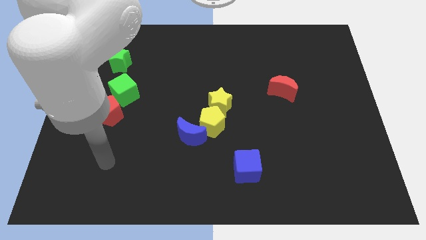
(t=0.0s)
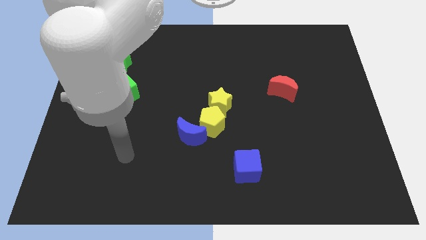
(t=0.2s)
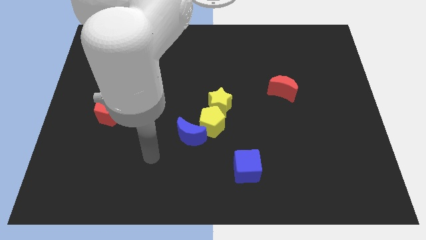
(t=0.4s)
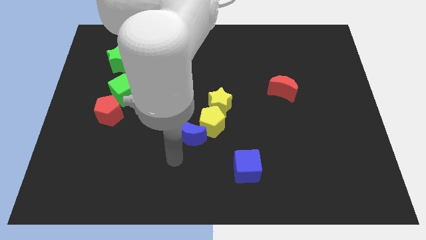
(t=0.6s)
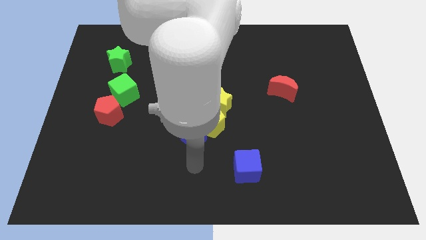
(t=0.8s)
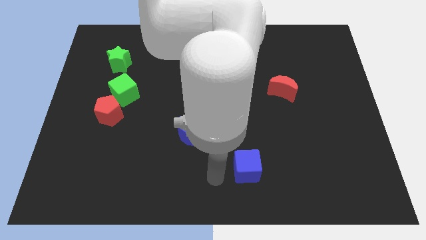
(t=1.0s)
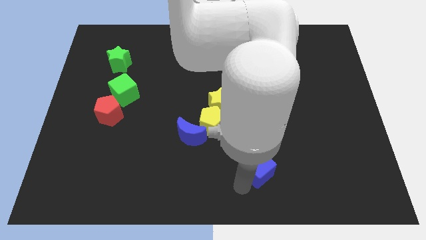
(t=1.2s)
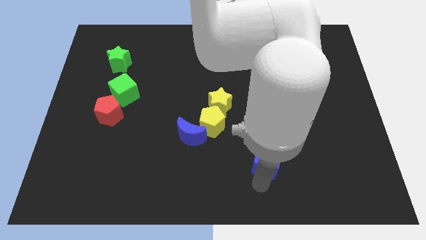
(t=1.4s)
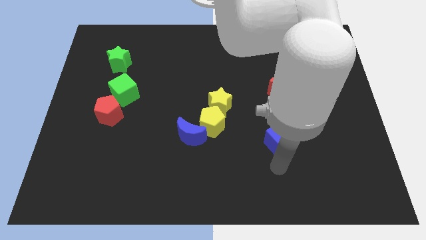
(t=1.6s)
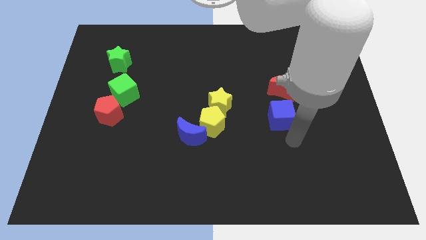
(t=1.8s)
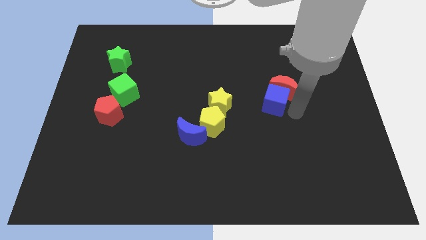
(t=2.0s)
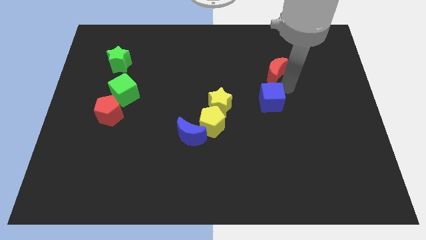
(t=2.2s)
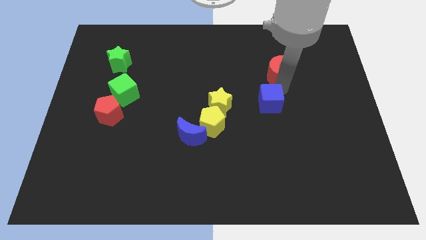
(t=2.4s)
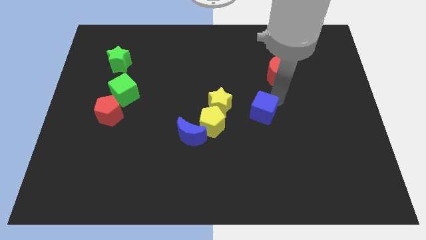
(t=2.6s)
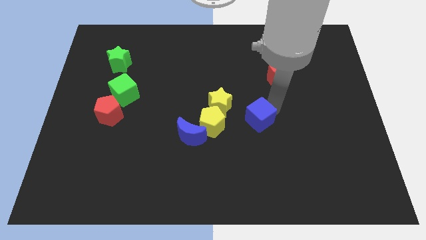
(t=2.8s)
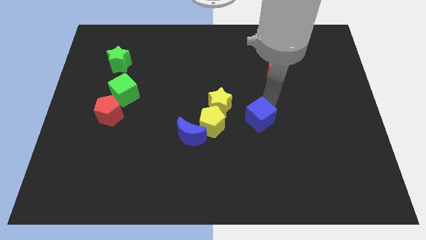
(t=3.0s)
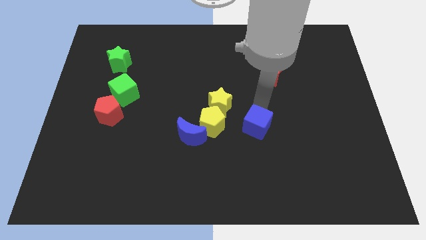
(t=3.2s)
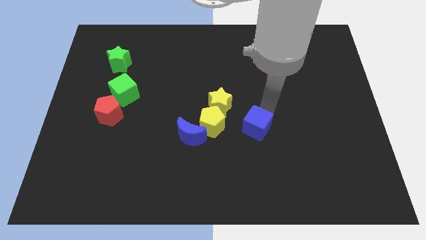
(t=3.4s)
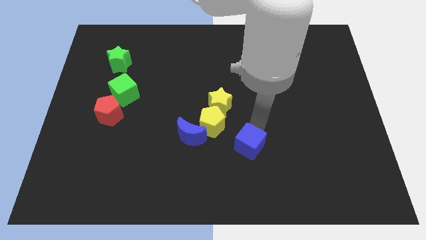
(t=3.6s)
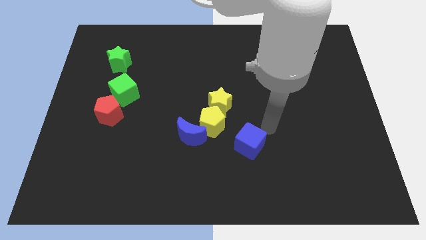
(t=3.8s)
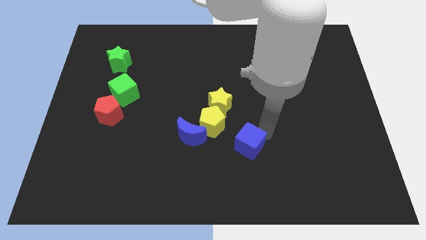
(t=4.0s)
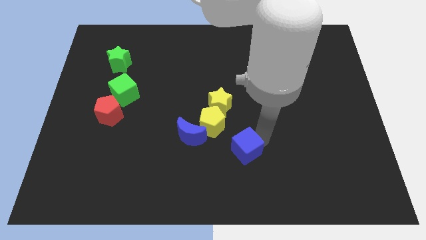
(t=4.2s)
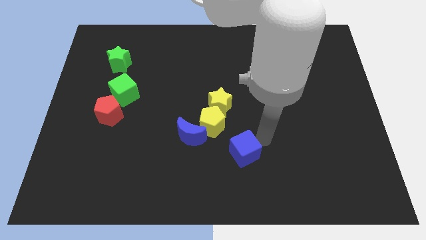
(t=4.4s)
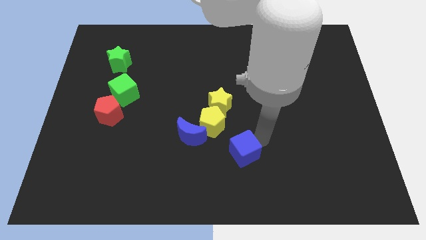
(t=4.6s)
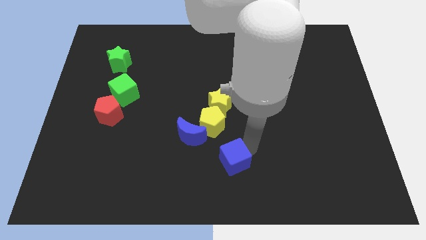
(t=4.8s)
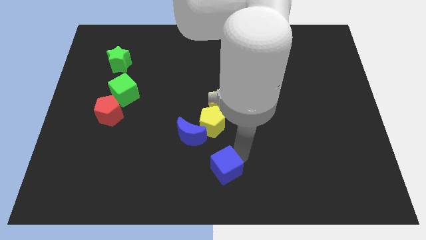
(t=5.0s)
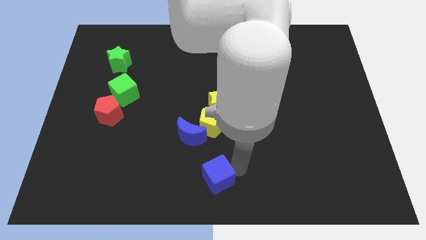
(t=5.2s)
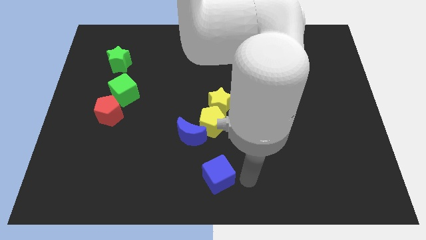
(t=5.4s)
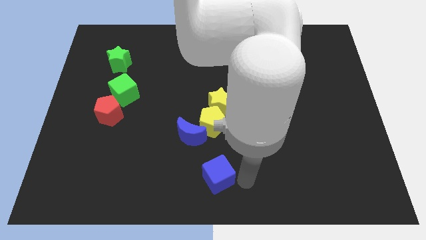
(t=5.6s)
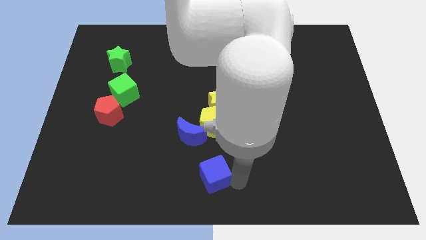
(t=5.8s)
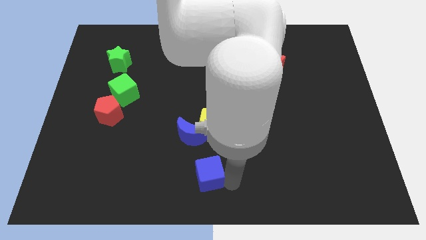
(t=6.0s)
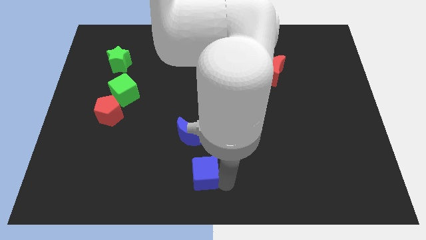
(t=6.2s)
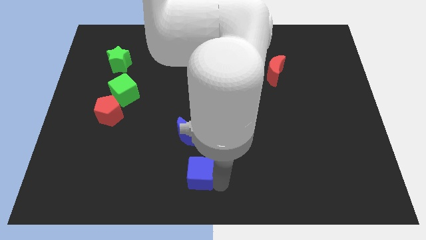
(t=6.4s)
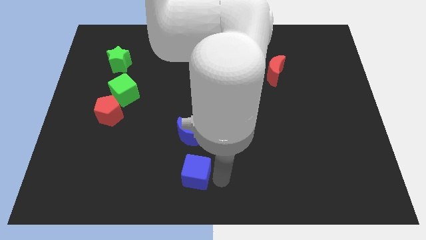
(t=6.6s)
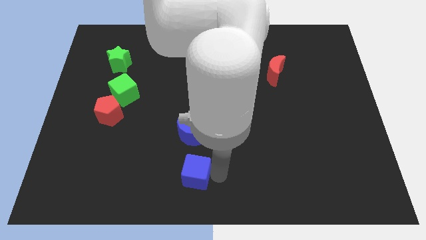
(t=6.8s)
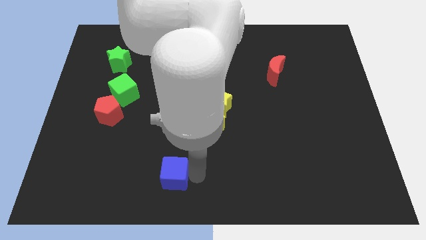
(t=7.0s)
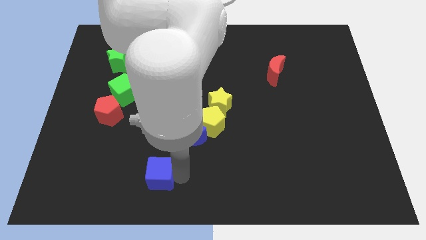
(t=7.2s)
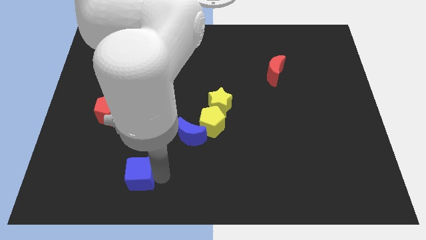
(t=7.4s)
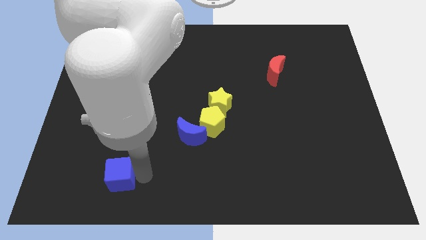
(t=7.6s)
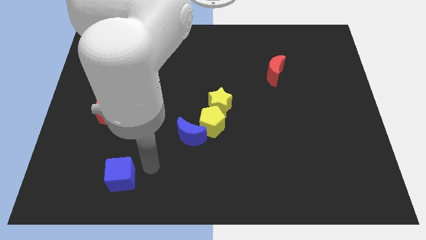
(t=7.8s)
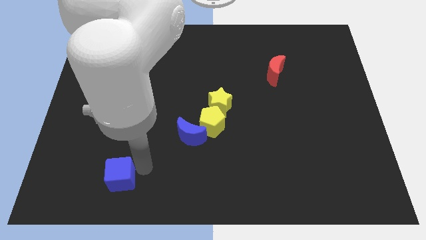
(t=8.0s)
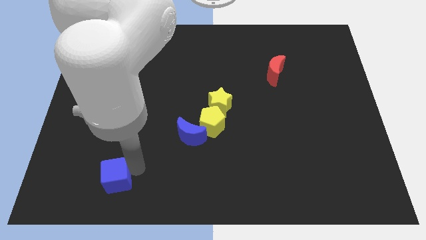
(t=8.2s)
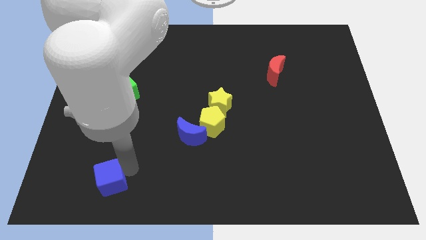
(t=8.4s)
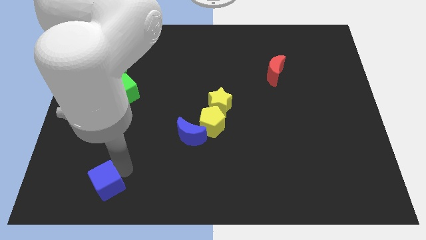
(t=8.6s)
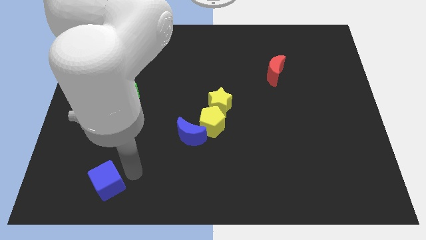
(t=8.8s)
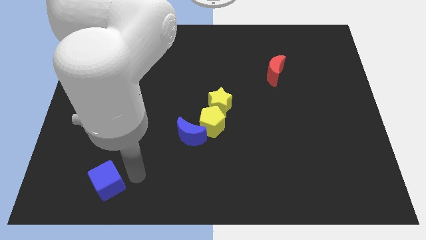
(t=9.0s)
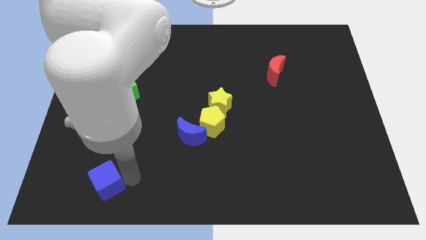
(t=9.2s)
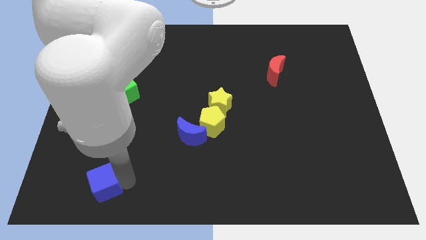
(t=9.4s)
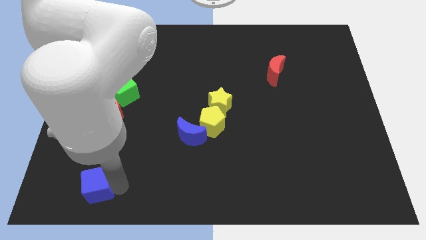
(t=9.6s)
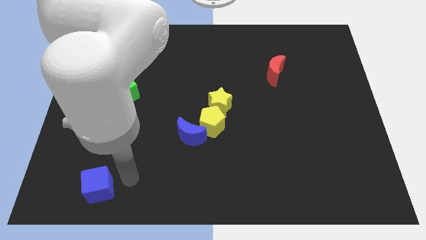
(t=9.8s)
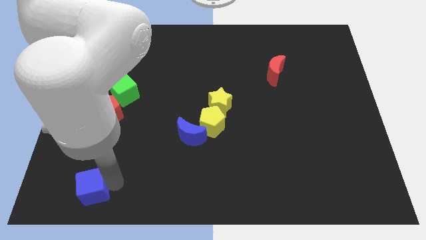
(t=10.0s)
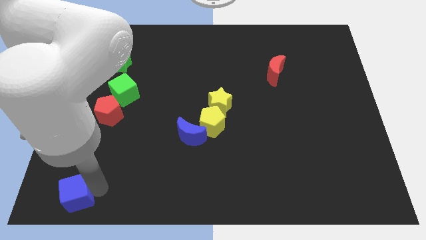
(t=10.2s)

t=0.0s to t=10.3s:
move the blue cube to the lower left corner

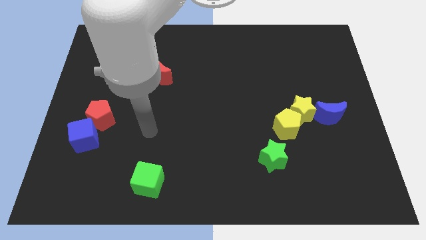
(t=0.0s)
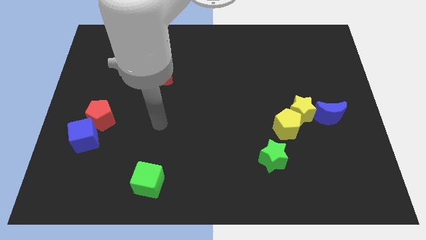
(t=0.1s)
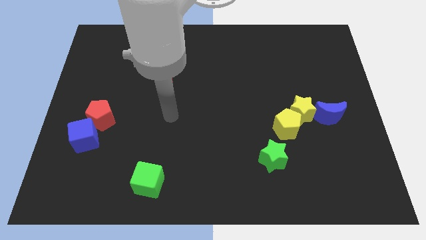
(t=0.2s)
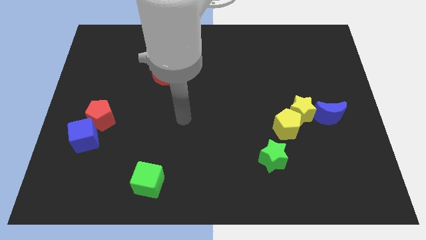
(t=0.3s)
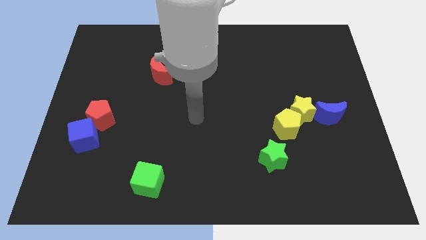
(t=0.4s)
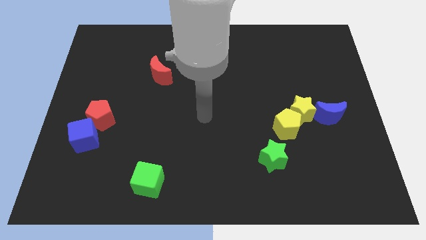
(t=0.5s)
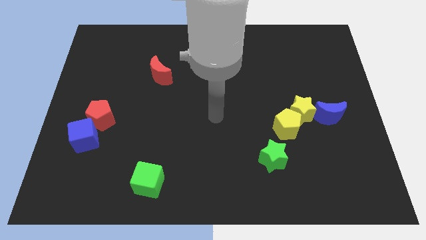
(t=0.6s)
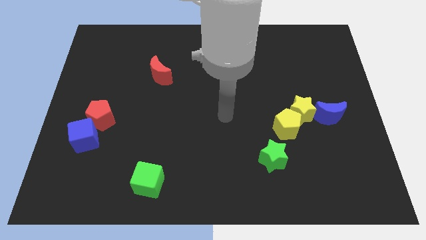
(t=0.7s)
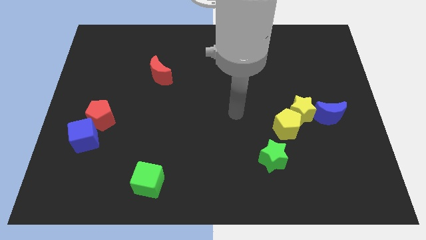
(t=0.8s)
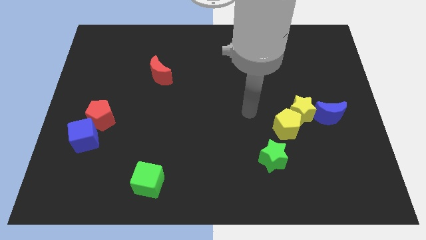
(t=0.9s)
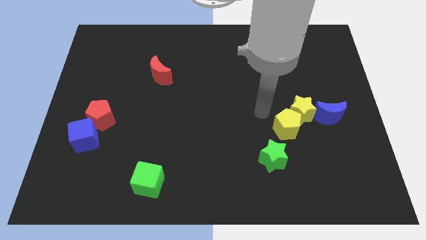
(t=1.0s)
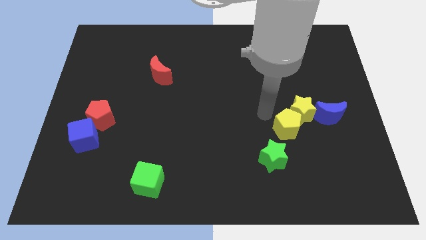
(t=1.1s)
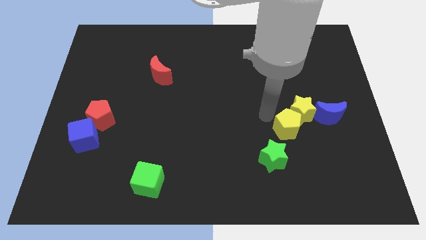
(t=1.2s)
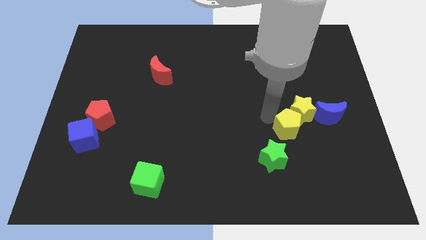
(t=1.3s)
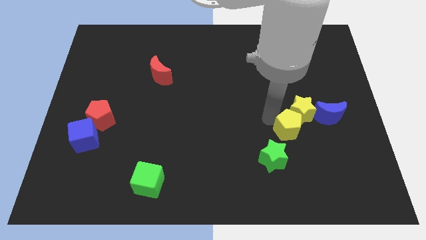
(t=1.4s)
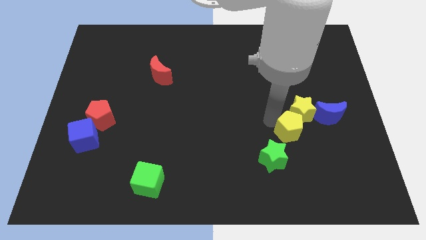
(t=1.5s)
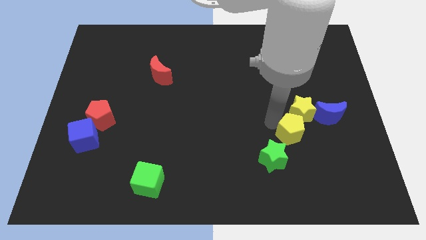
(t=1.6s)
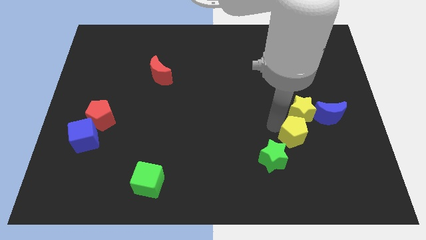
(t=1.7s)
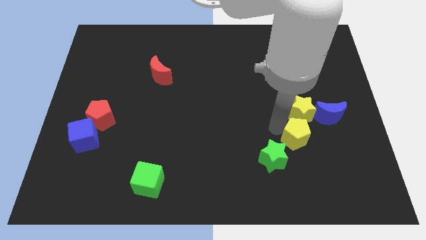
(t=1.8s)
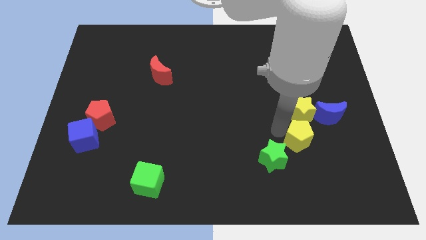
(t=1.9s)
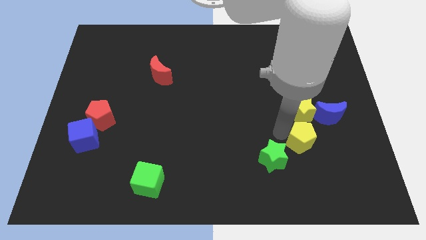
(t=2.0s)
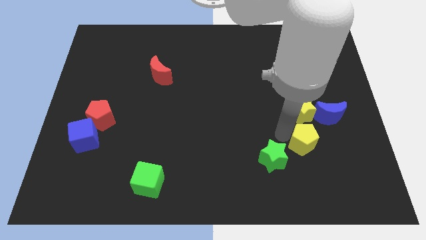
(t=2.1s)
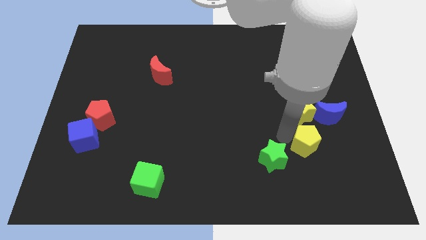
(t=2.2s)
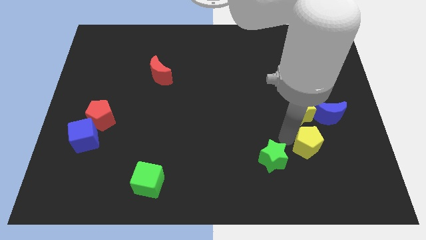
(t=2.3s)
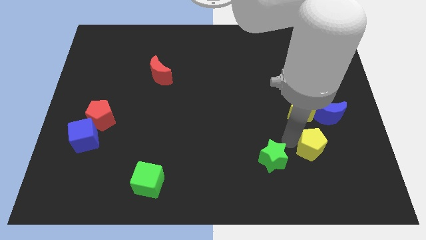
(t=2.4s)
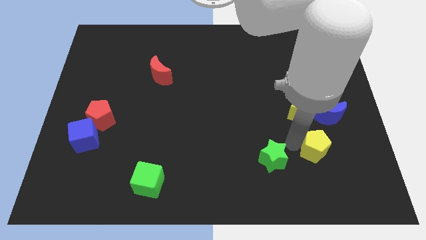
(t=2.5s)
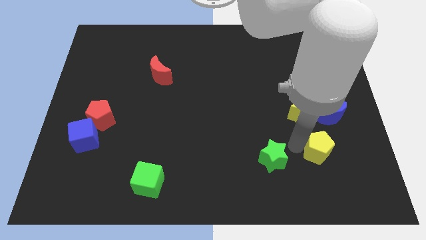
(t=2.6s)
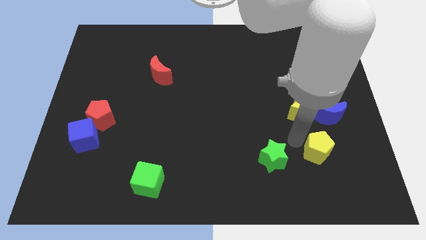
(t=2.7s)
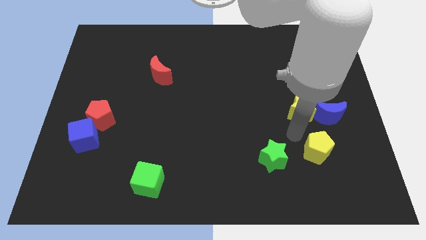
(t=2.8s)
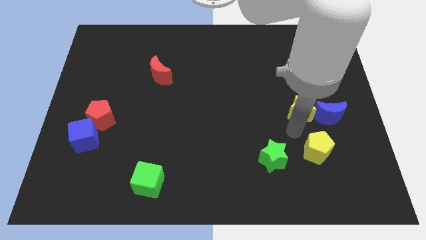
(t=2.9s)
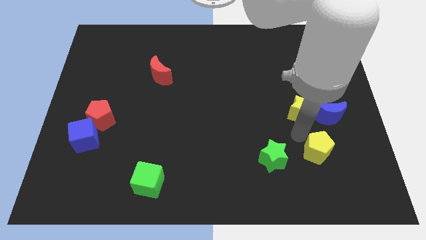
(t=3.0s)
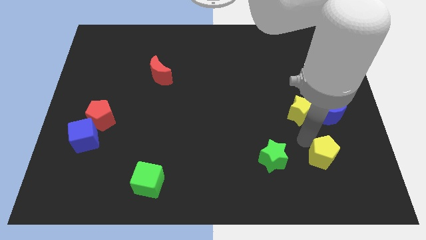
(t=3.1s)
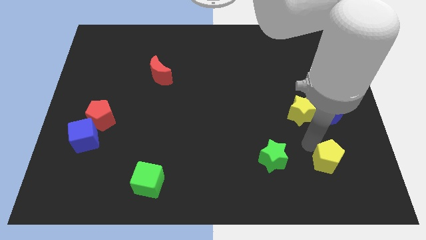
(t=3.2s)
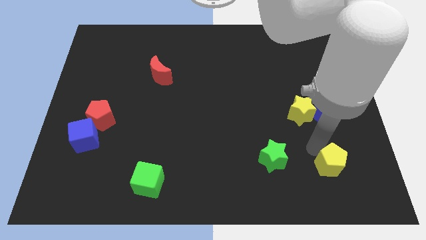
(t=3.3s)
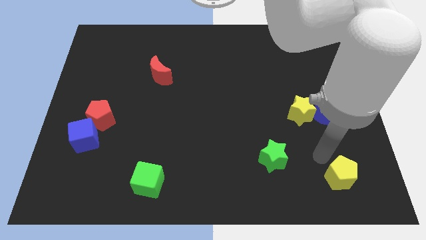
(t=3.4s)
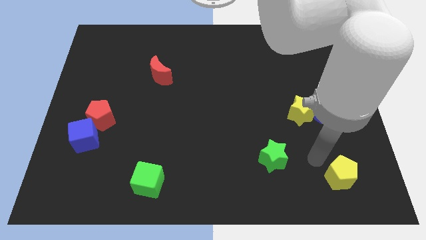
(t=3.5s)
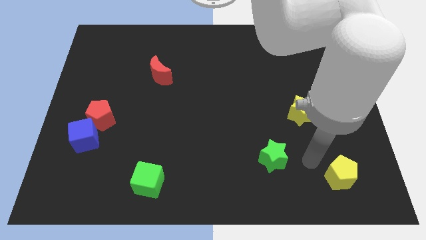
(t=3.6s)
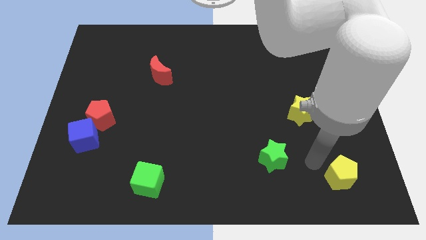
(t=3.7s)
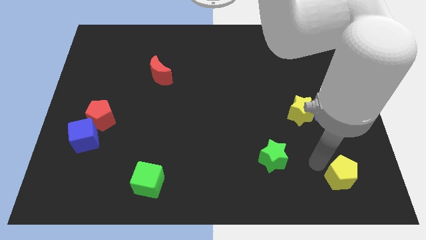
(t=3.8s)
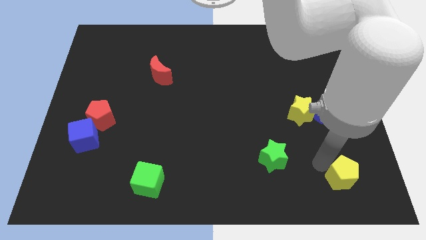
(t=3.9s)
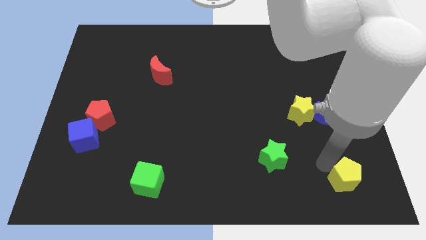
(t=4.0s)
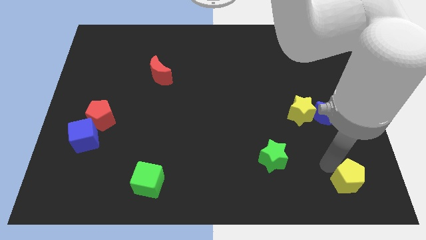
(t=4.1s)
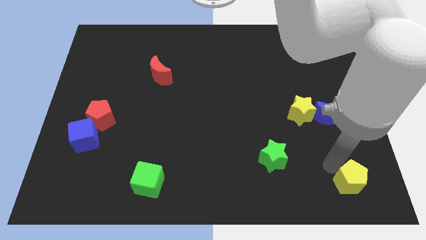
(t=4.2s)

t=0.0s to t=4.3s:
move the yellow pentagon to the bottom right corner
